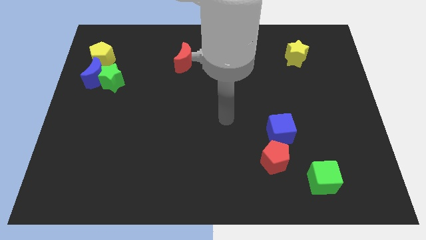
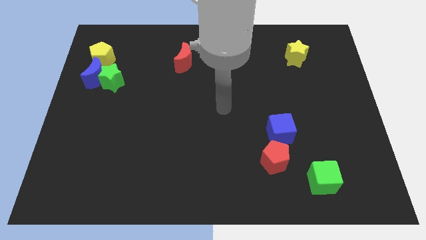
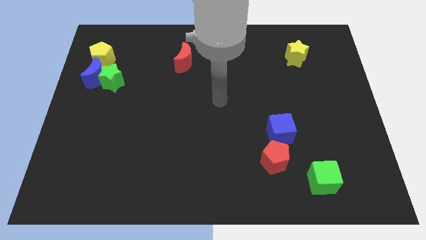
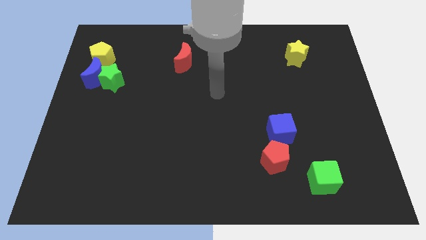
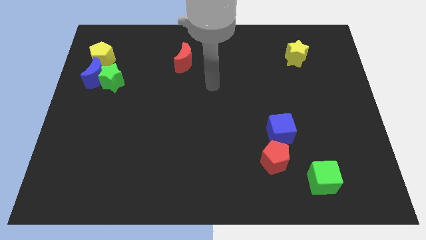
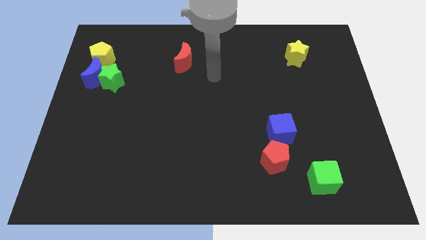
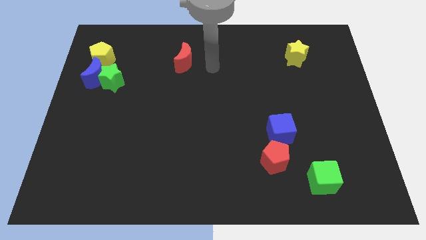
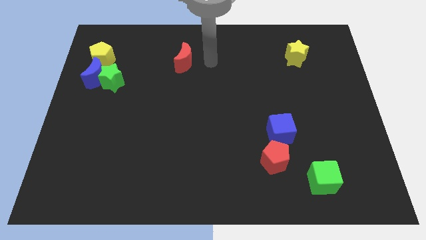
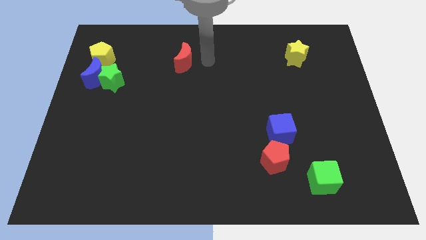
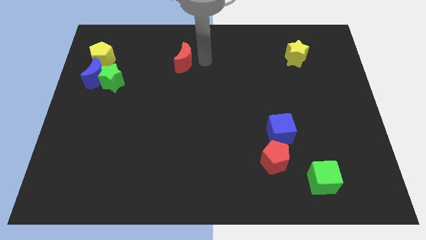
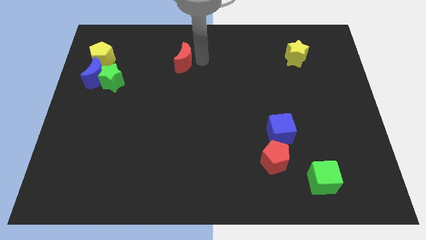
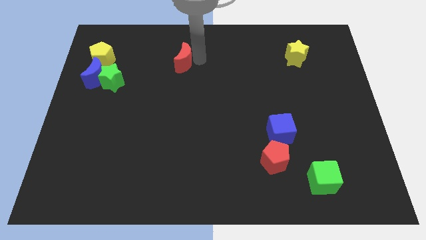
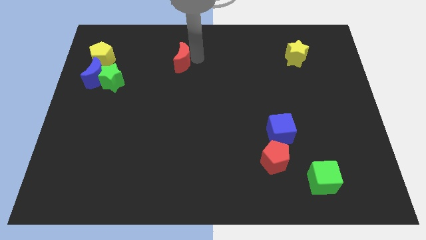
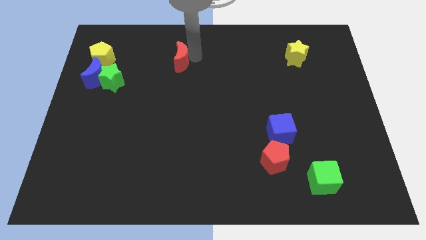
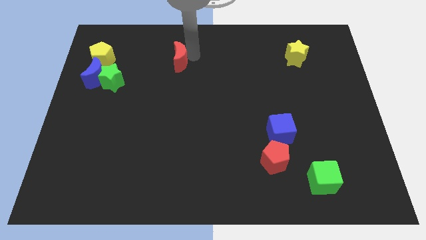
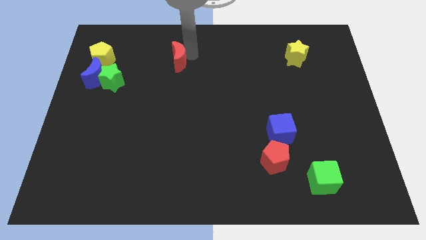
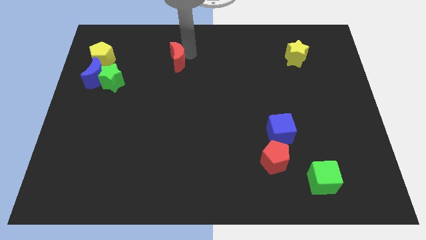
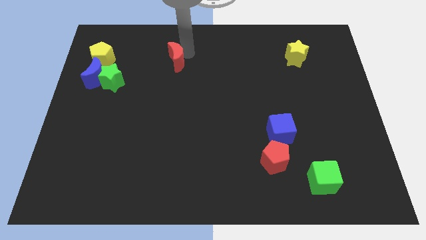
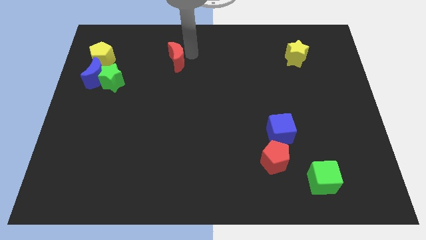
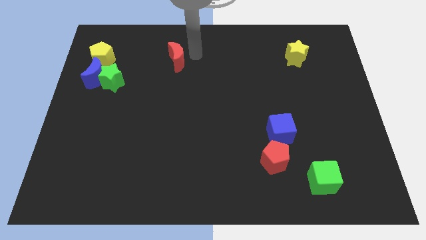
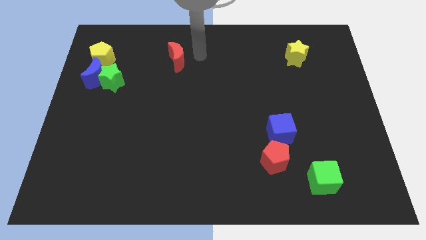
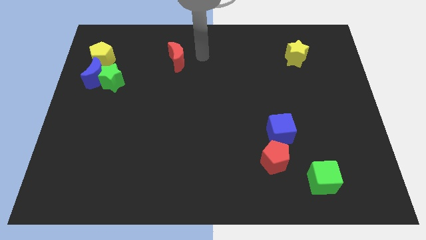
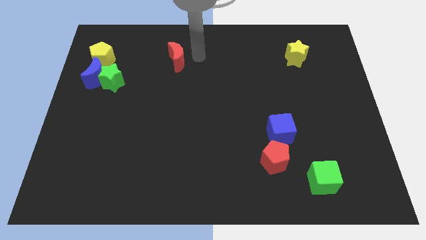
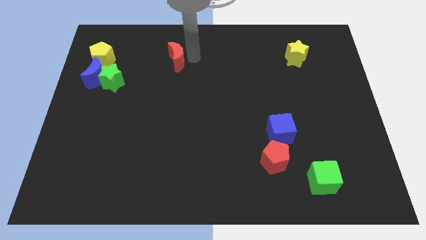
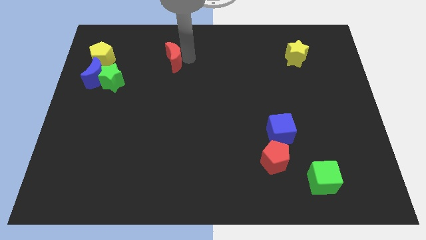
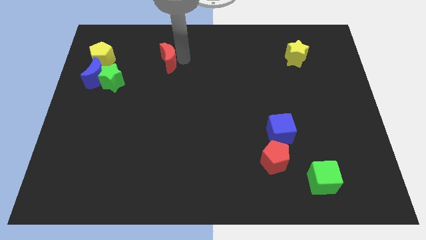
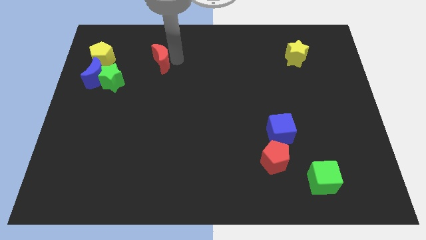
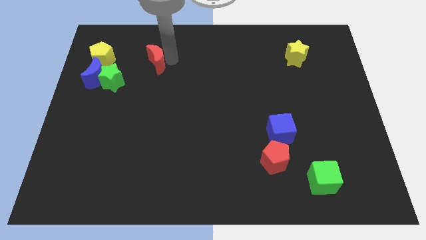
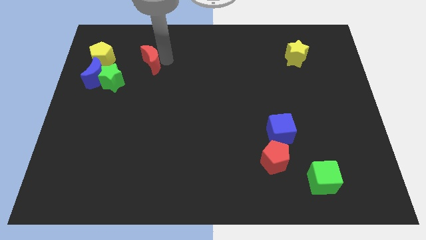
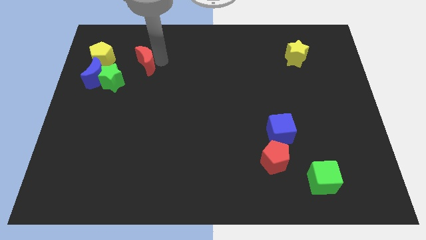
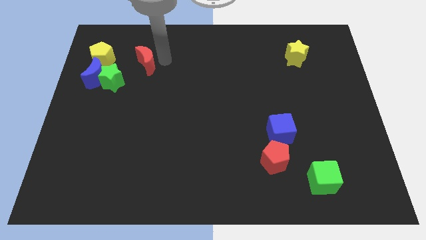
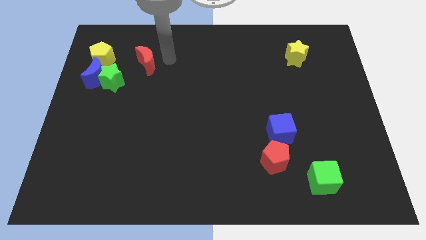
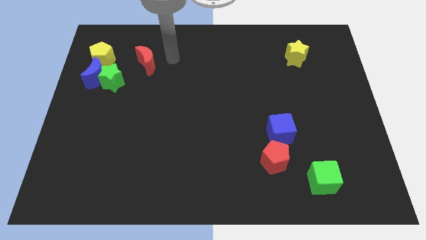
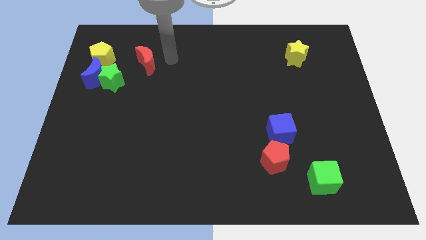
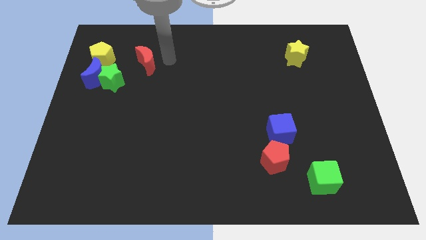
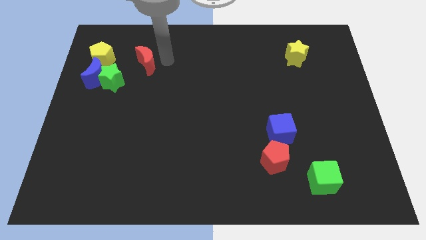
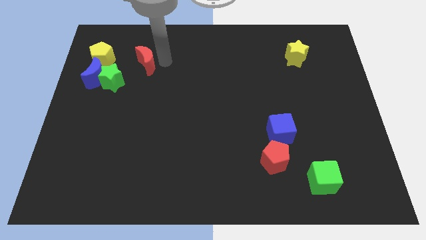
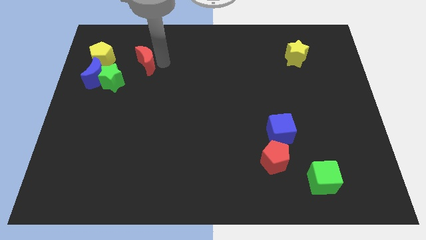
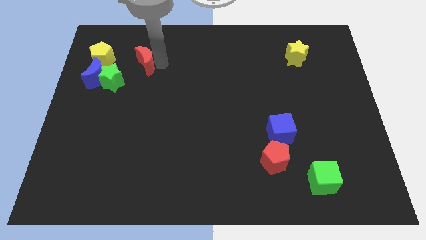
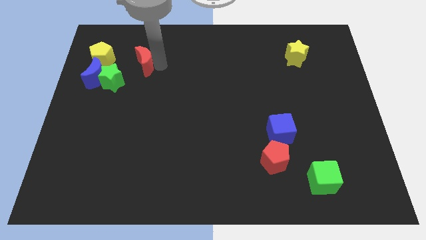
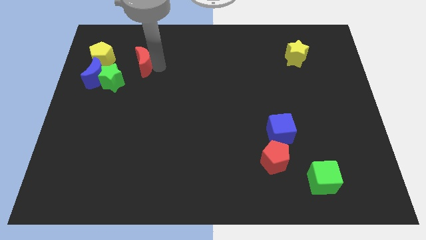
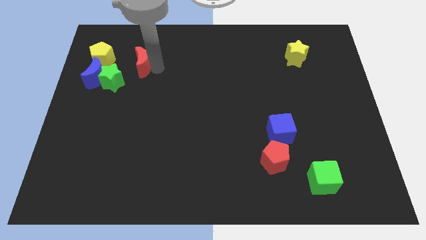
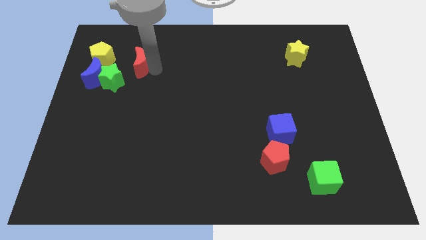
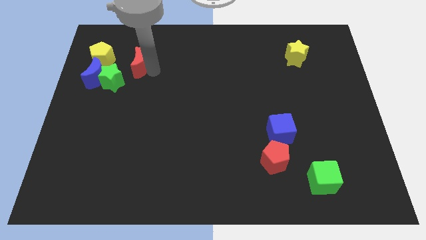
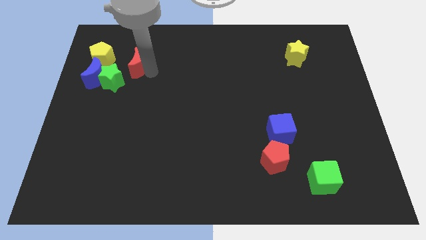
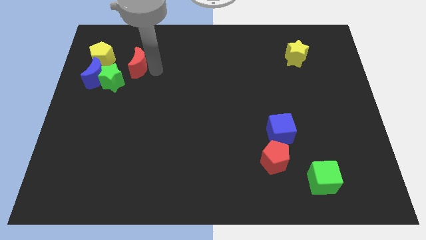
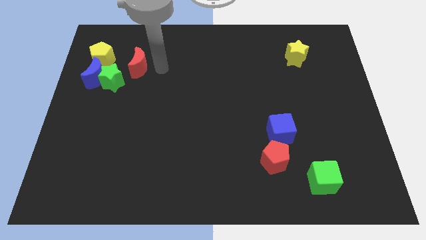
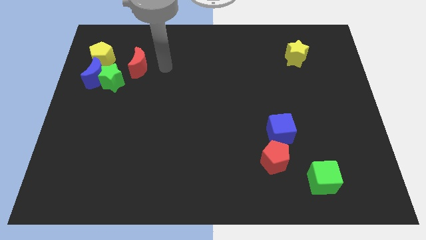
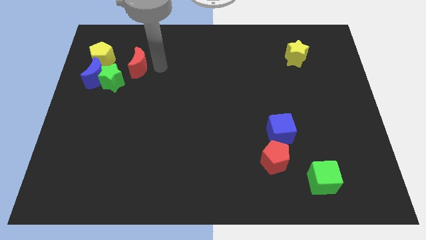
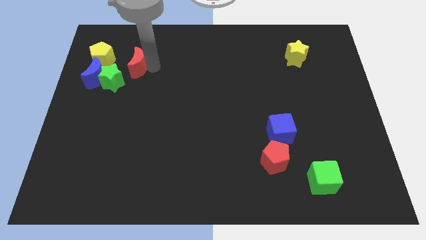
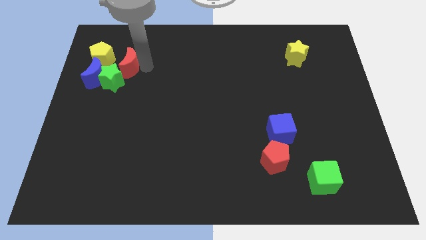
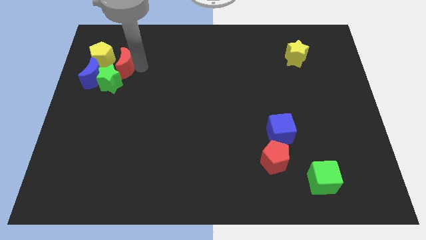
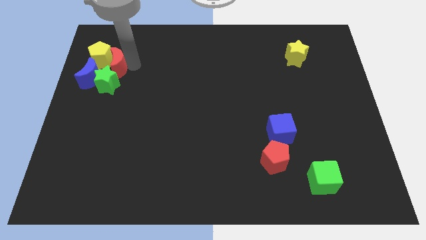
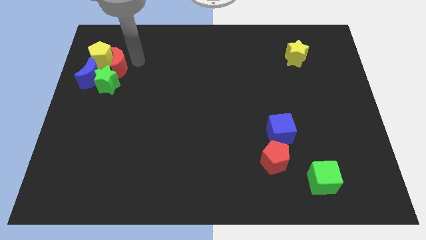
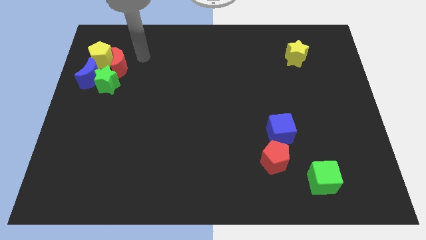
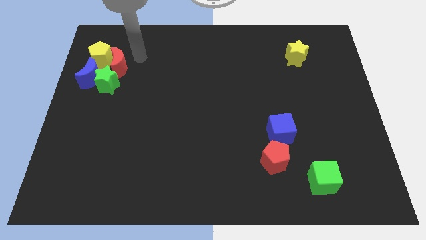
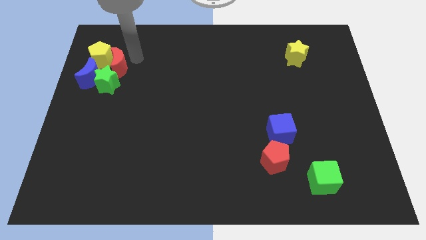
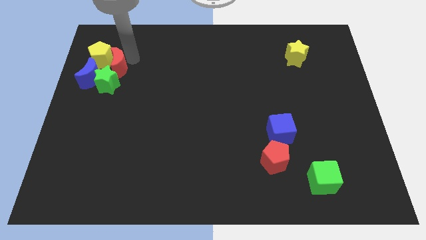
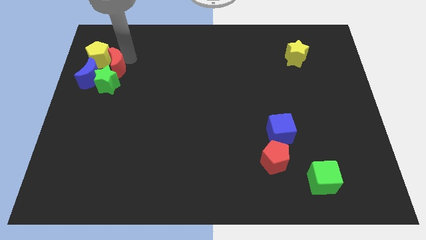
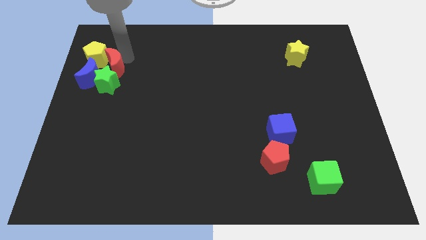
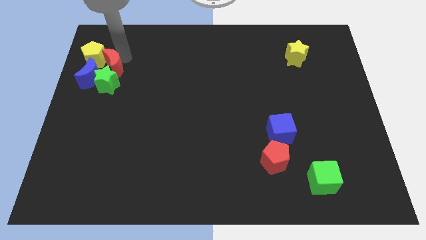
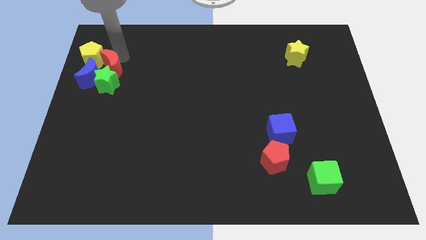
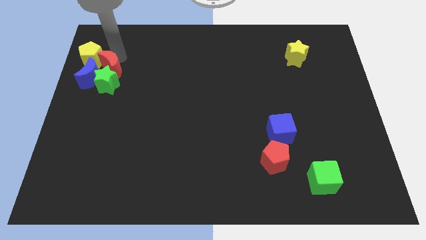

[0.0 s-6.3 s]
push the red moon towards the blue moon

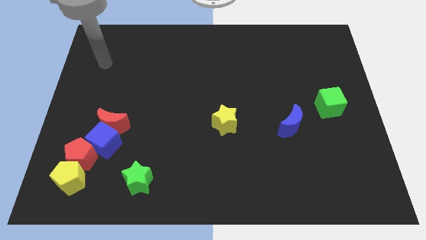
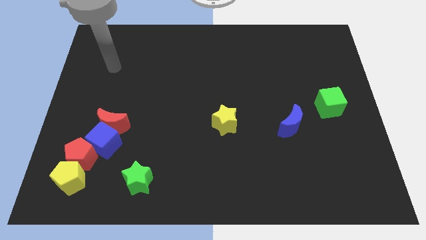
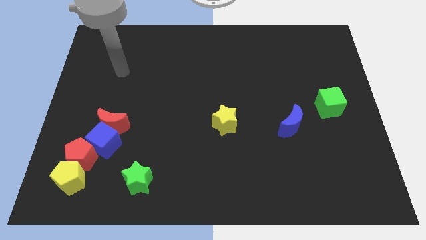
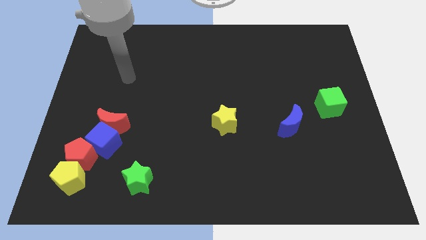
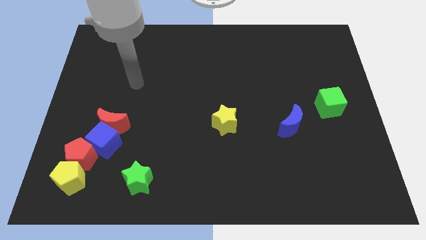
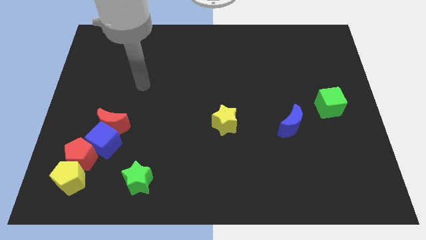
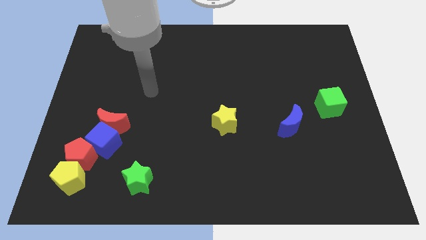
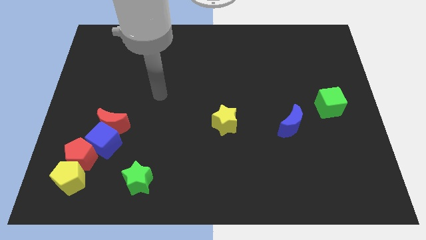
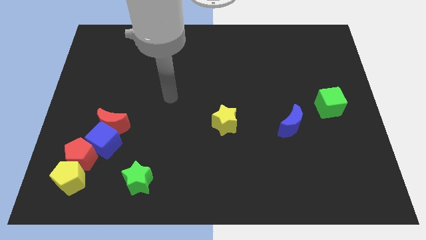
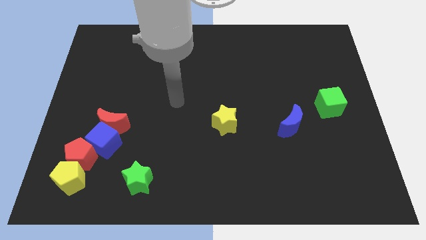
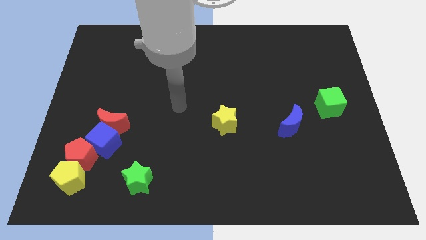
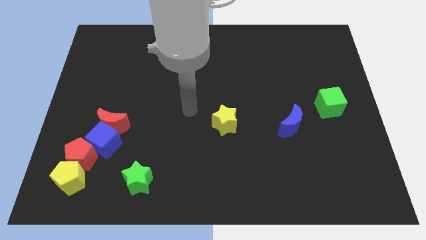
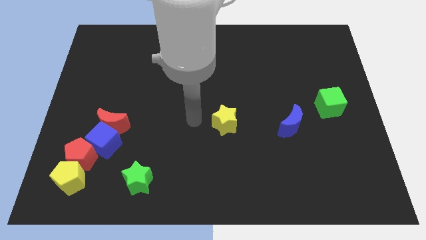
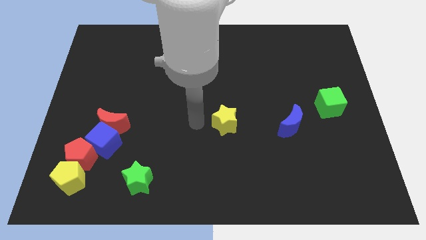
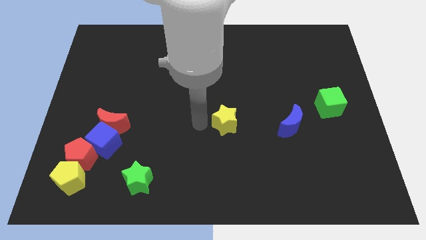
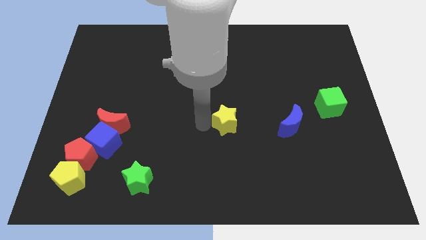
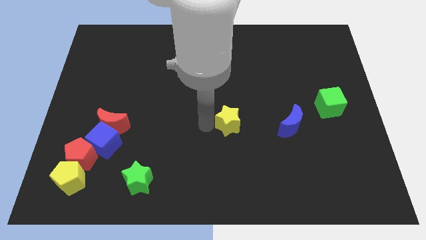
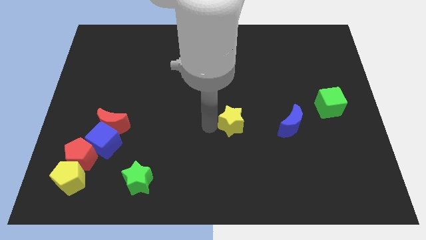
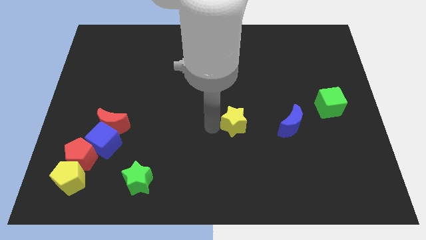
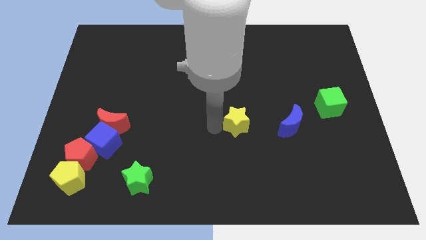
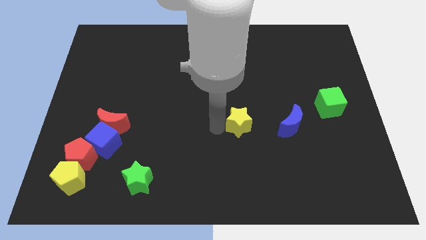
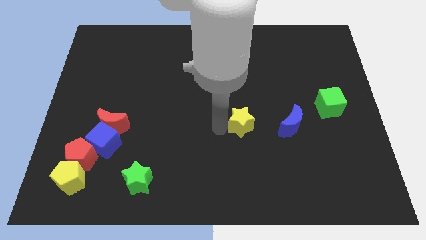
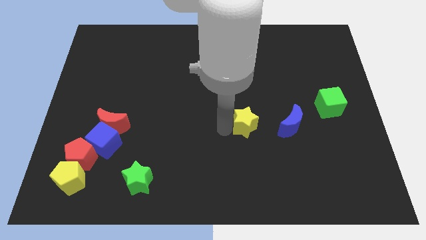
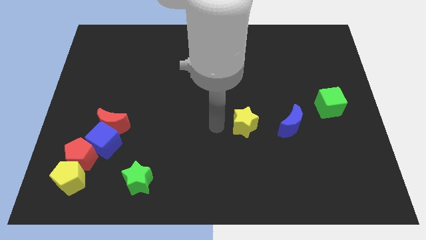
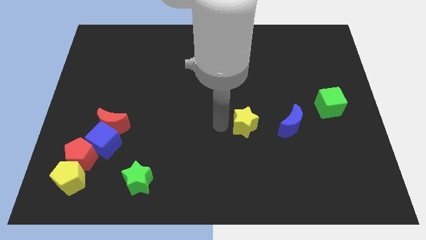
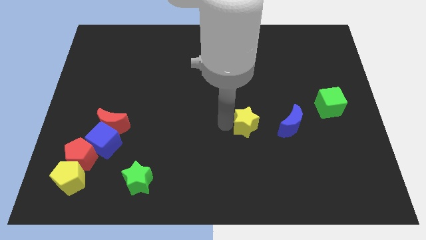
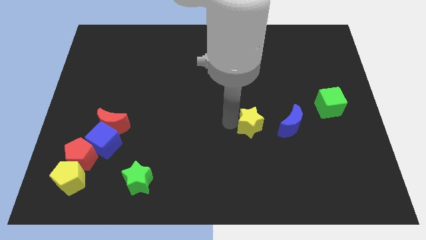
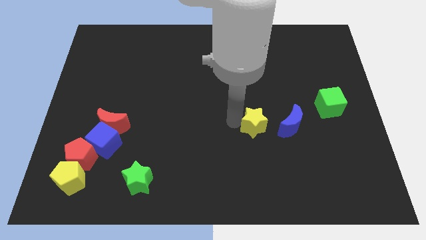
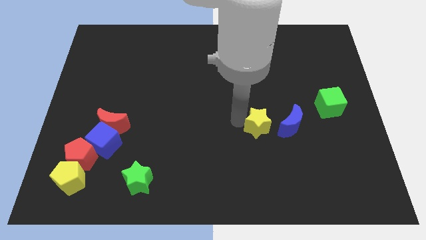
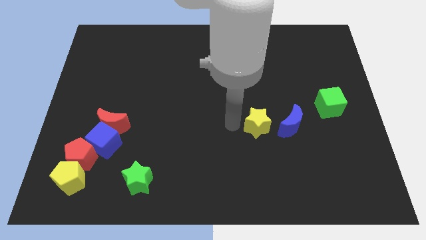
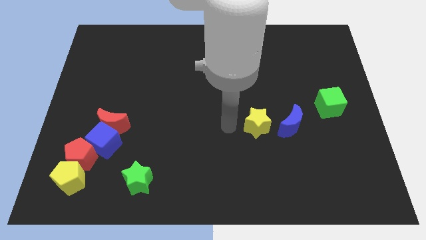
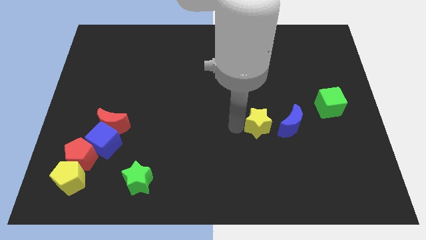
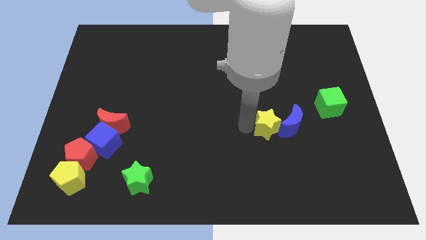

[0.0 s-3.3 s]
put the yellow star towards the blue moon
